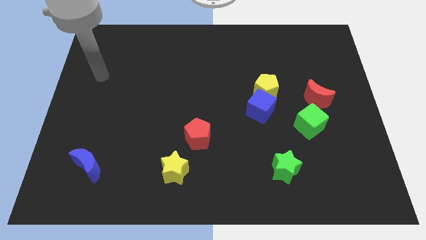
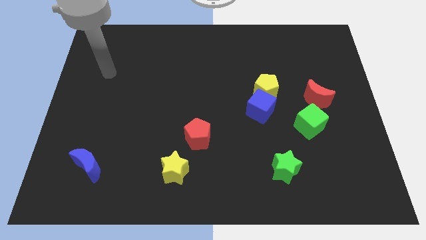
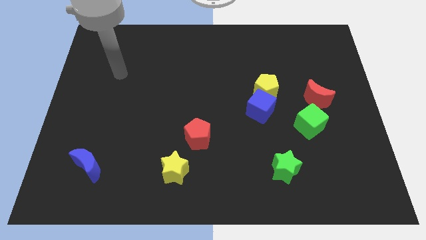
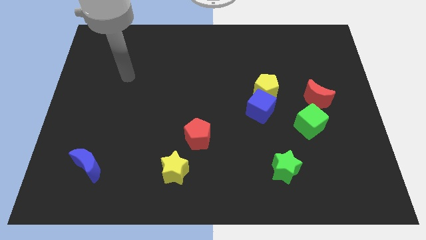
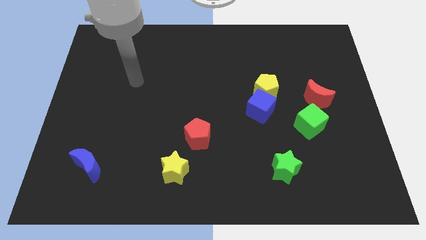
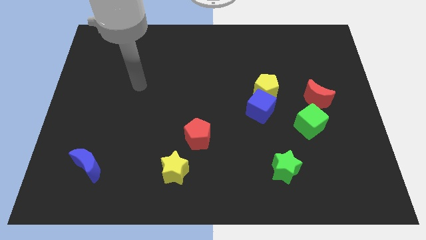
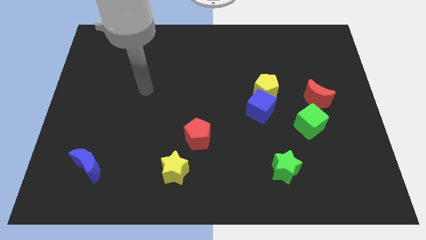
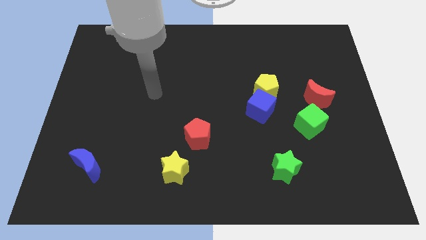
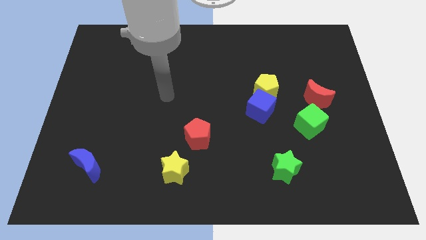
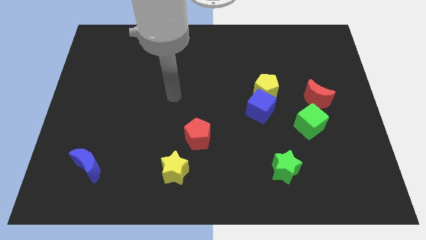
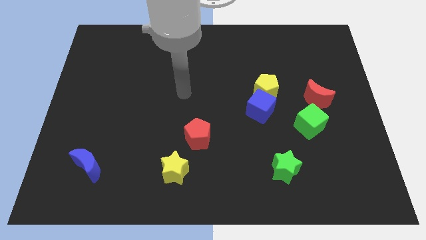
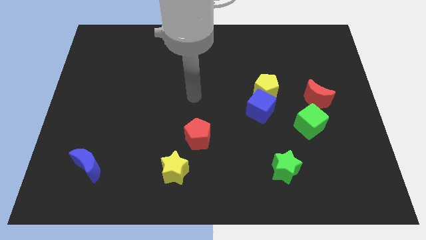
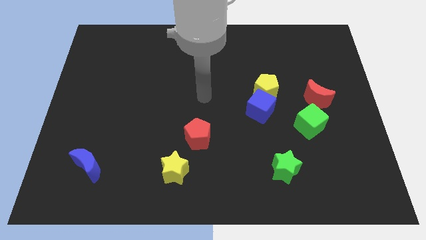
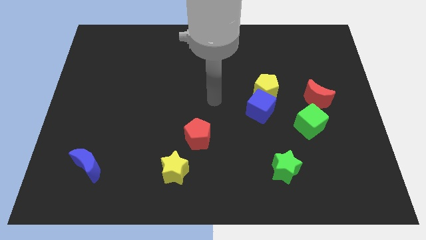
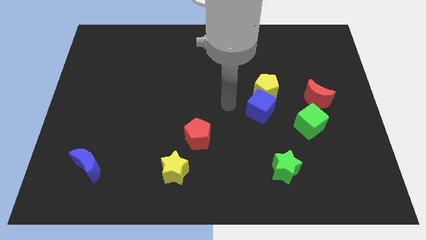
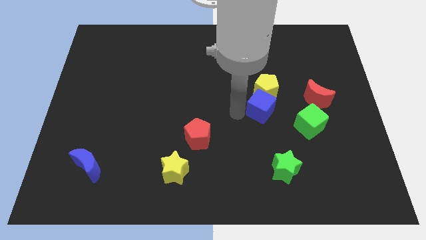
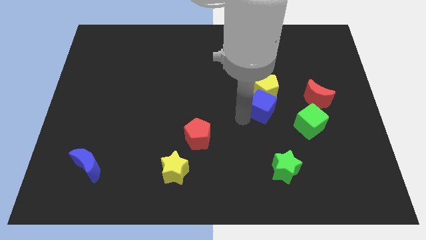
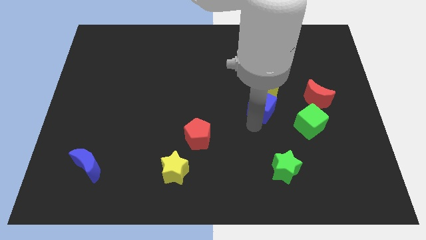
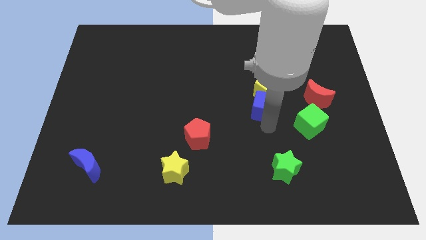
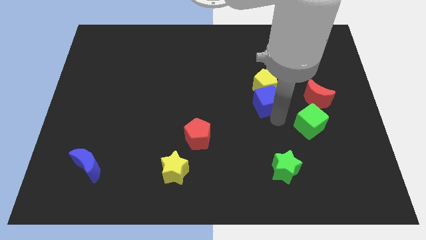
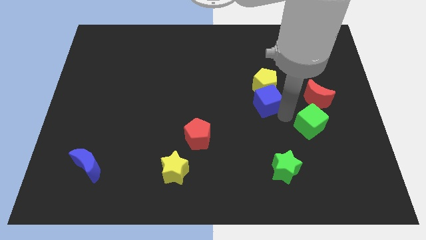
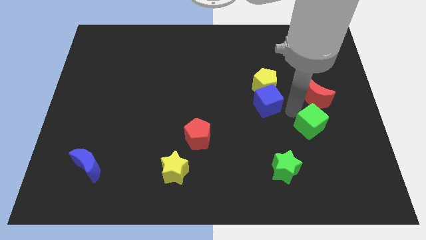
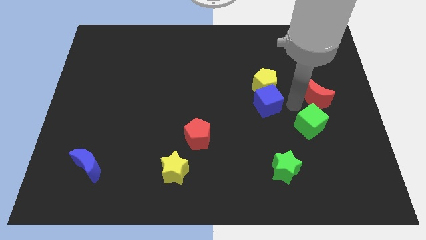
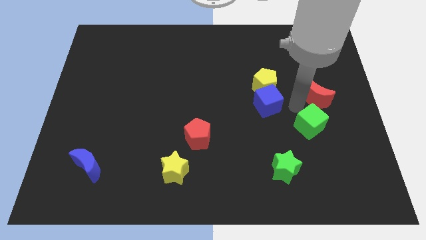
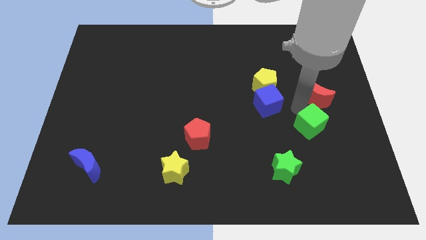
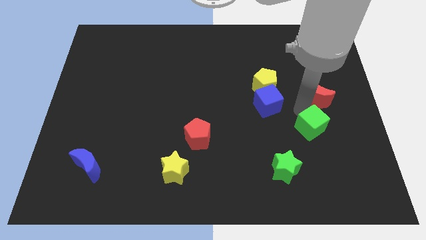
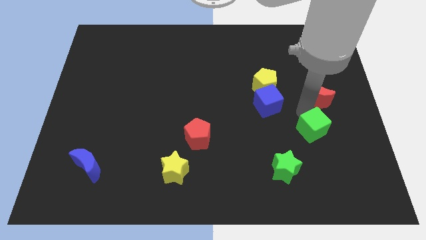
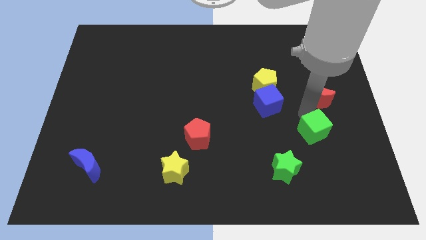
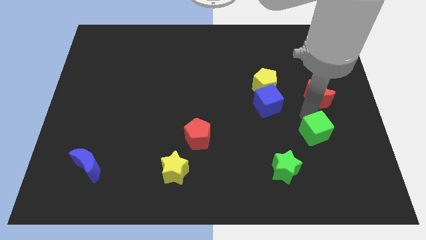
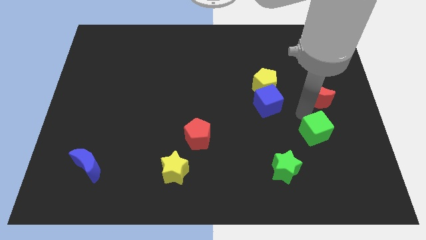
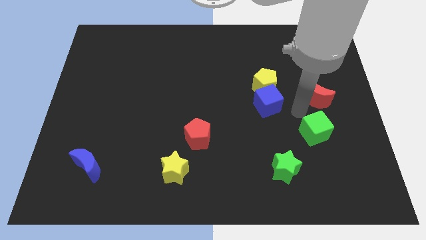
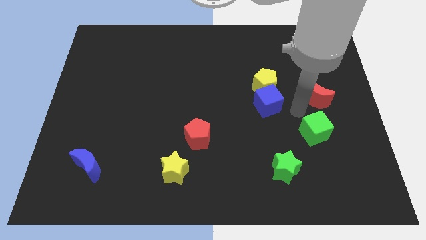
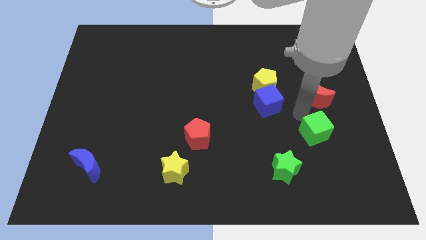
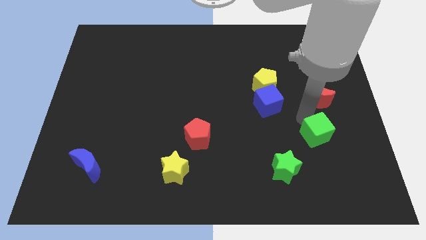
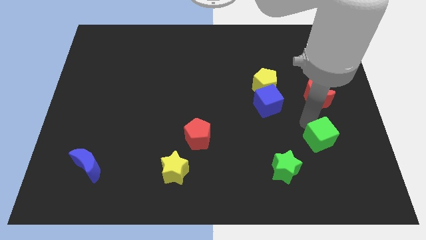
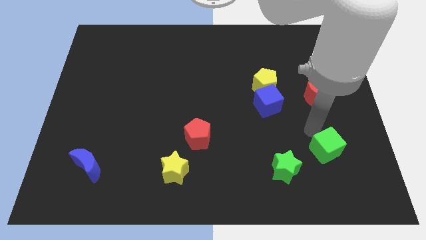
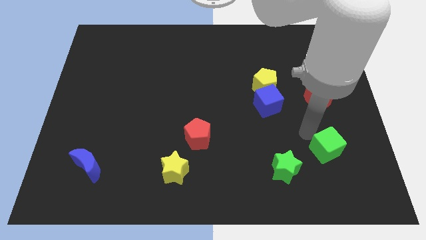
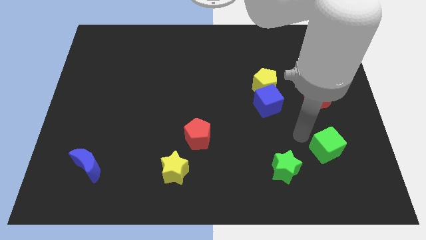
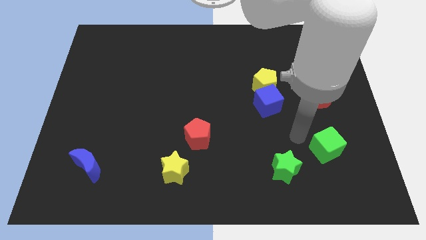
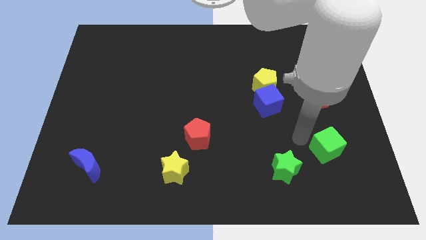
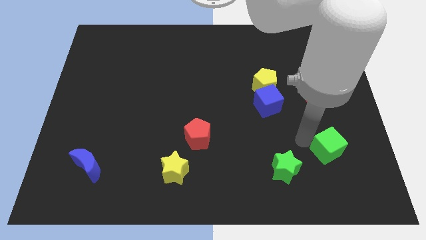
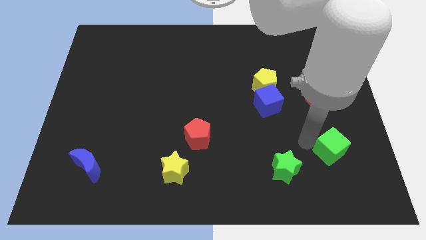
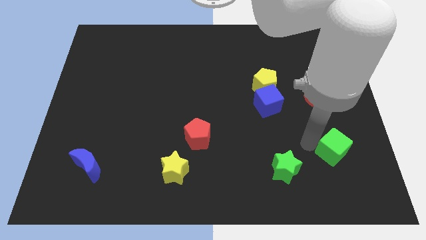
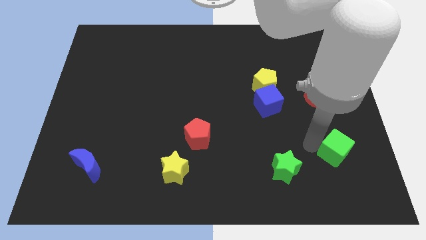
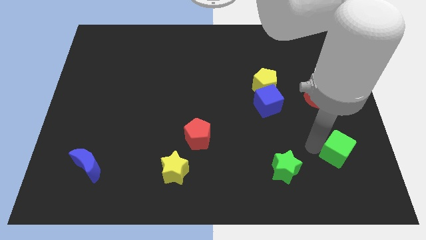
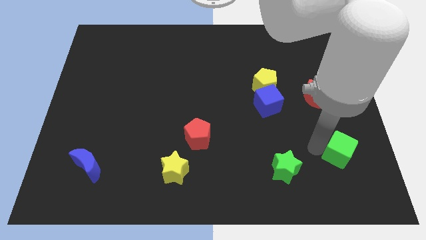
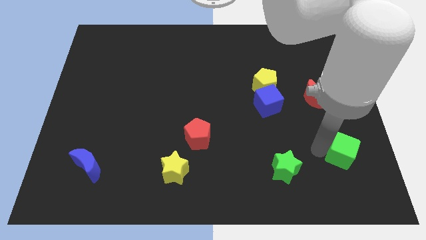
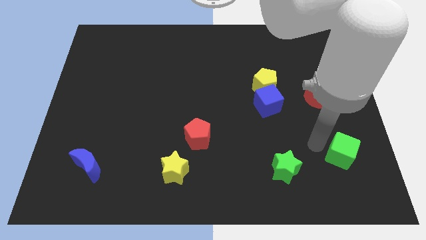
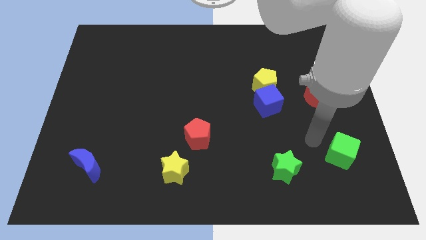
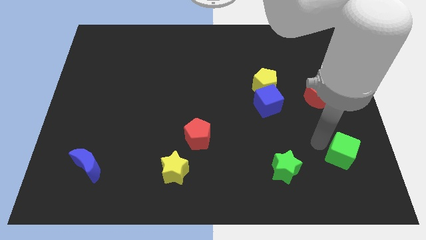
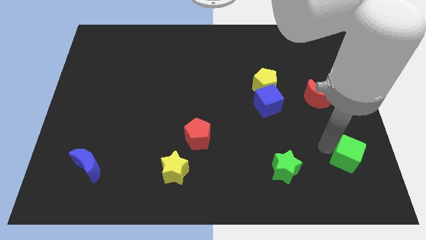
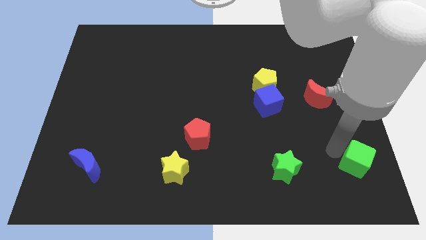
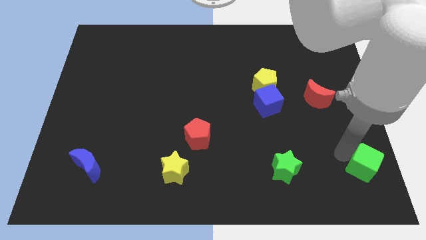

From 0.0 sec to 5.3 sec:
slide the green cube to the bottom right corner
